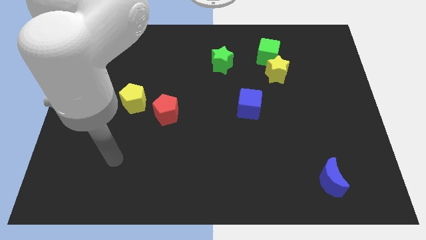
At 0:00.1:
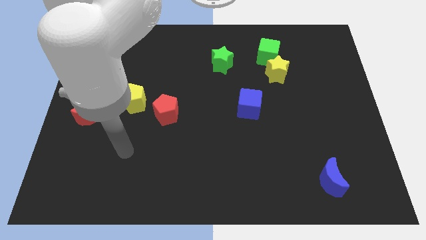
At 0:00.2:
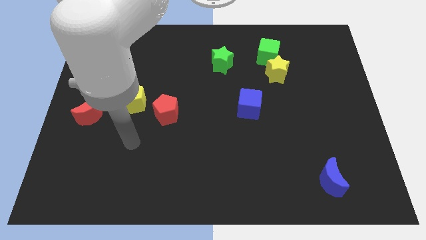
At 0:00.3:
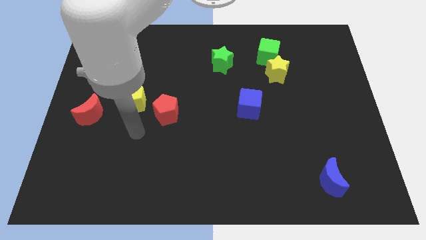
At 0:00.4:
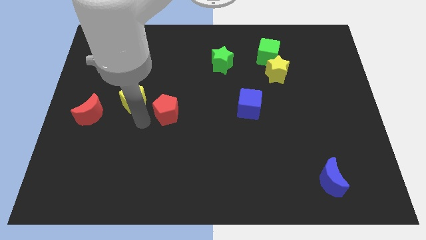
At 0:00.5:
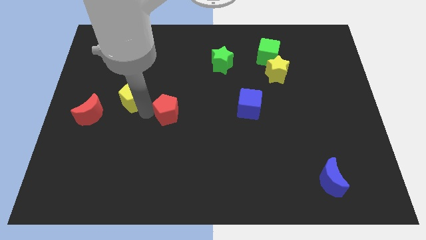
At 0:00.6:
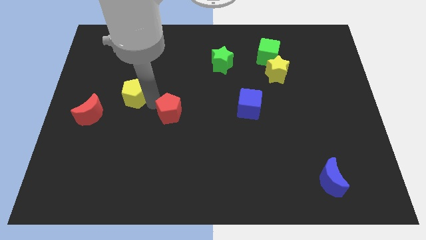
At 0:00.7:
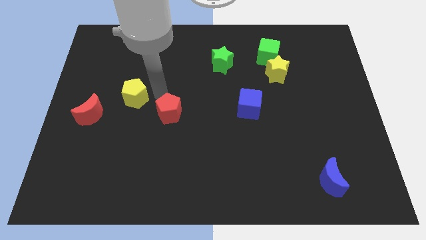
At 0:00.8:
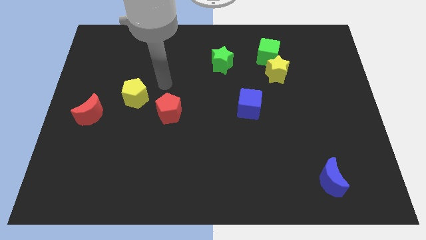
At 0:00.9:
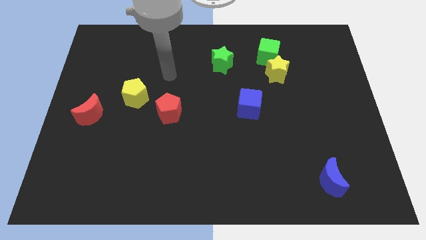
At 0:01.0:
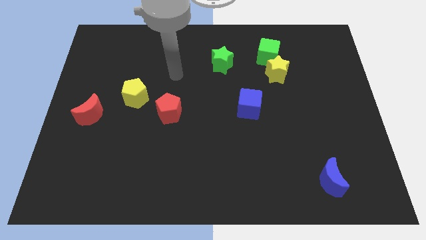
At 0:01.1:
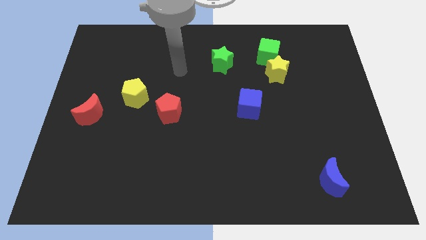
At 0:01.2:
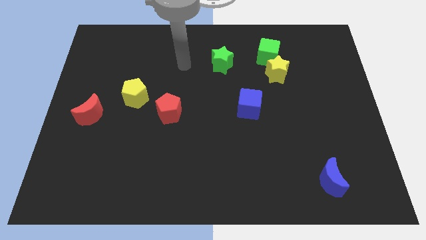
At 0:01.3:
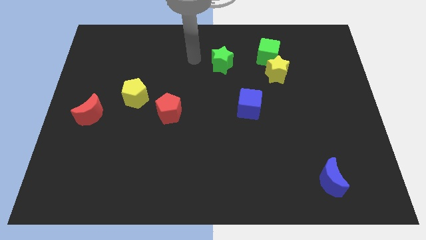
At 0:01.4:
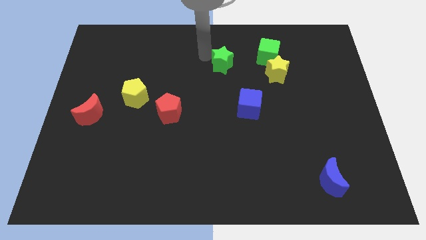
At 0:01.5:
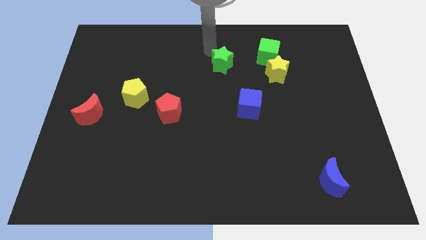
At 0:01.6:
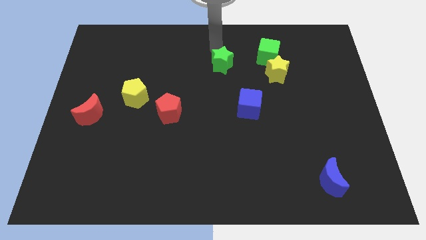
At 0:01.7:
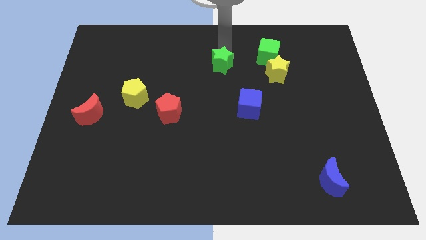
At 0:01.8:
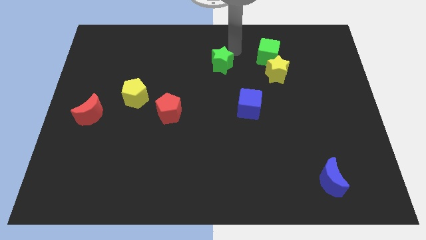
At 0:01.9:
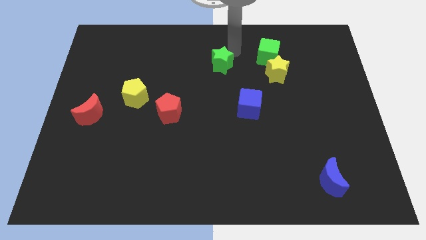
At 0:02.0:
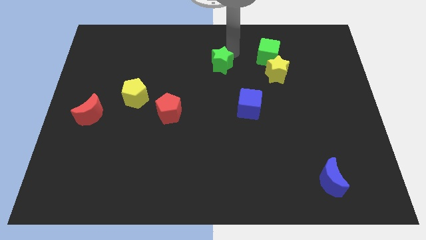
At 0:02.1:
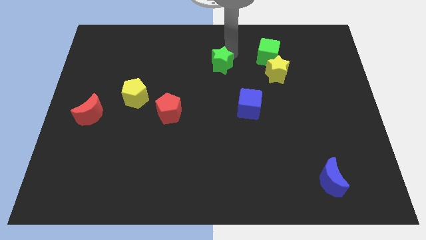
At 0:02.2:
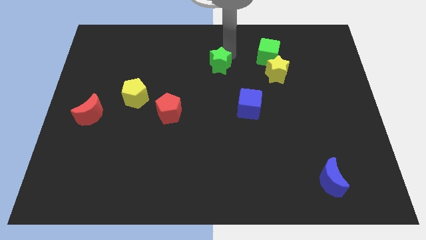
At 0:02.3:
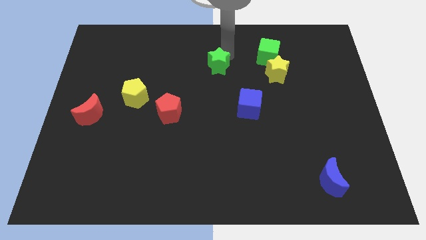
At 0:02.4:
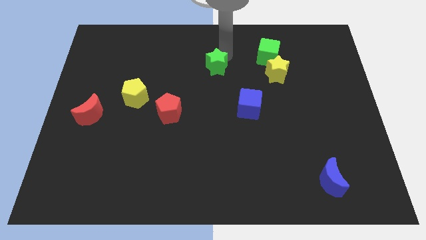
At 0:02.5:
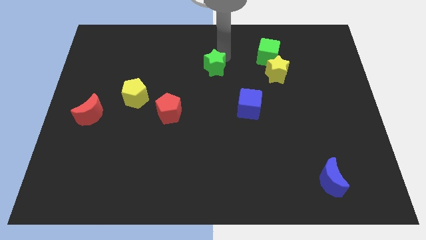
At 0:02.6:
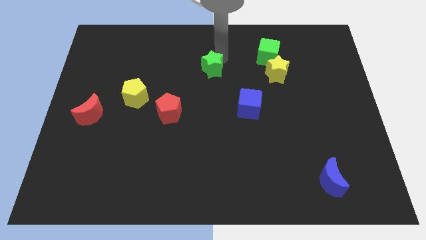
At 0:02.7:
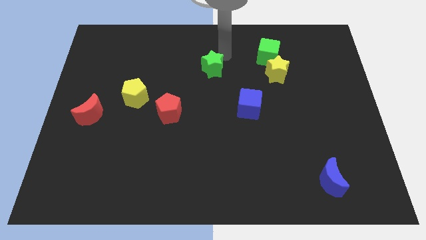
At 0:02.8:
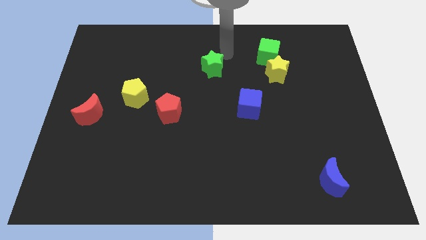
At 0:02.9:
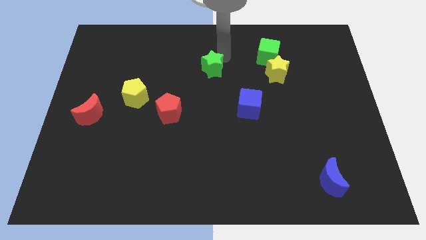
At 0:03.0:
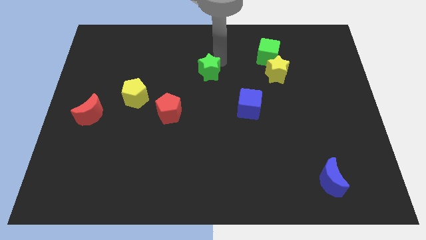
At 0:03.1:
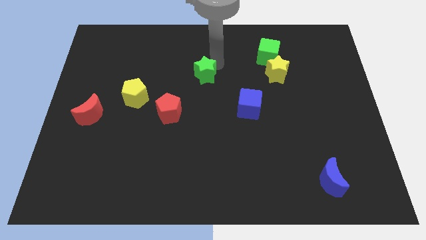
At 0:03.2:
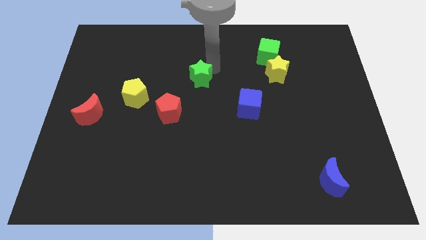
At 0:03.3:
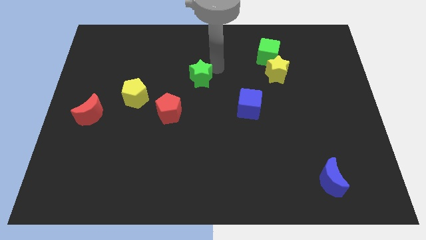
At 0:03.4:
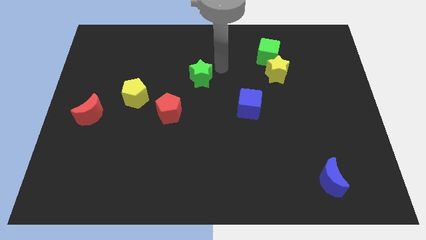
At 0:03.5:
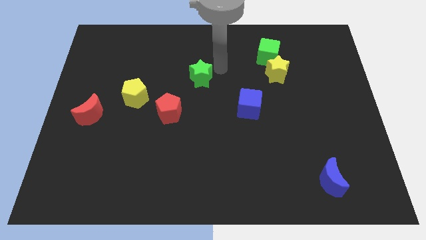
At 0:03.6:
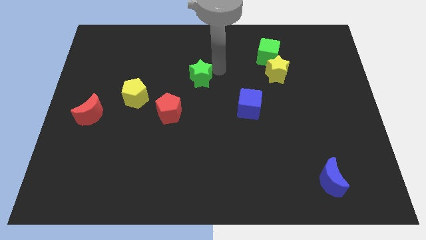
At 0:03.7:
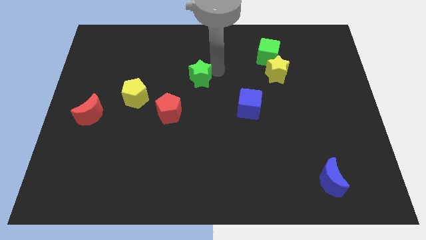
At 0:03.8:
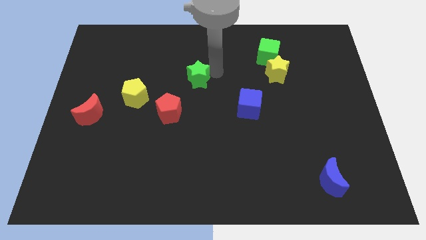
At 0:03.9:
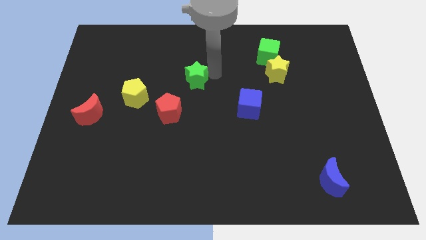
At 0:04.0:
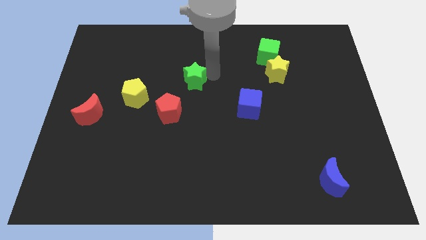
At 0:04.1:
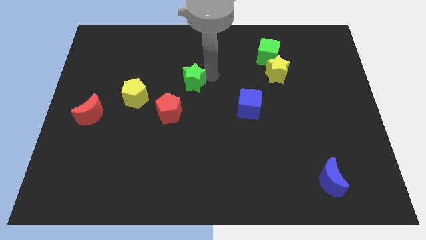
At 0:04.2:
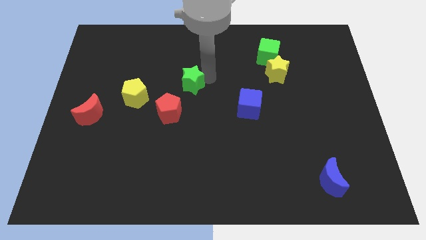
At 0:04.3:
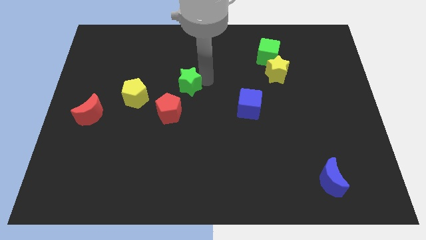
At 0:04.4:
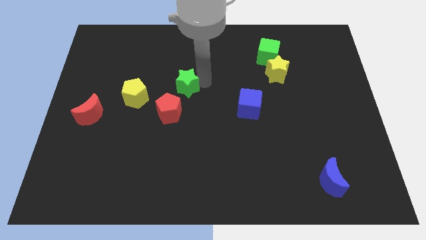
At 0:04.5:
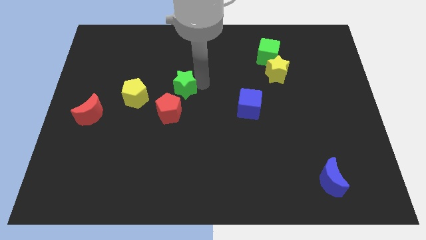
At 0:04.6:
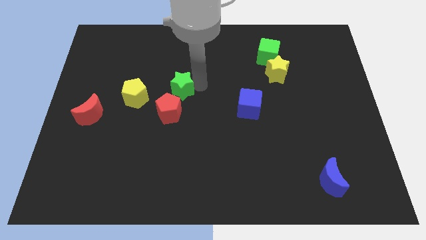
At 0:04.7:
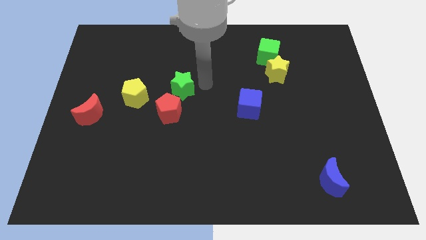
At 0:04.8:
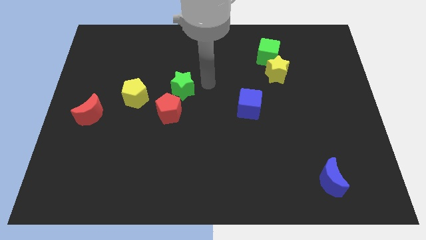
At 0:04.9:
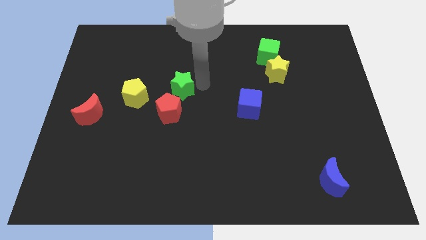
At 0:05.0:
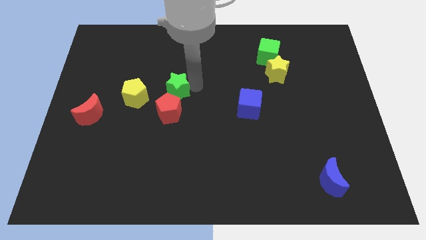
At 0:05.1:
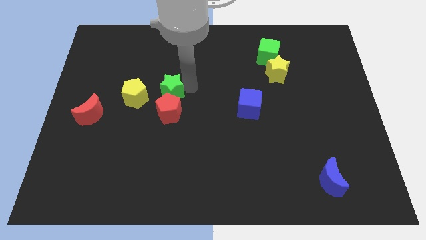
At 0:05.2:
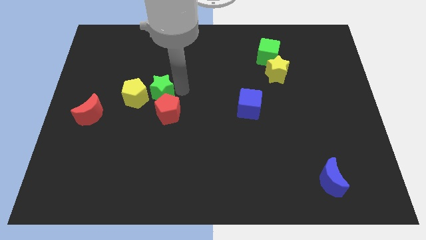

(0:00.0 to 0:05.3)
move the green star towards the yellow pentagon

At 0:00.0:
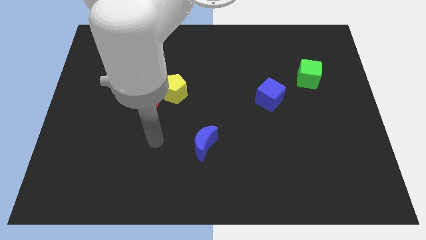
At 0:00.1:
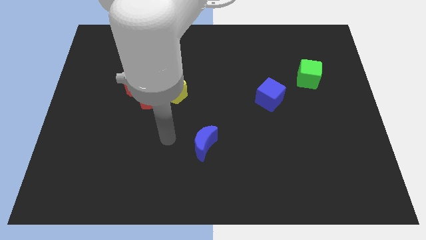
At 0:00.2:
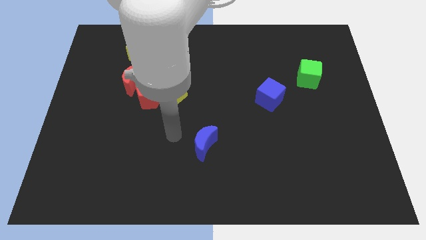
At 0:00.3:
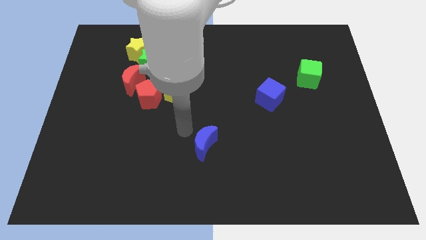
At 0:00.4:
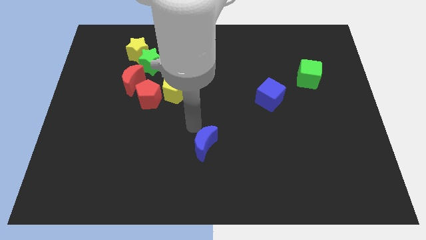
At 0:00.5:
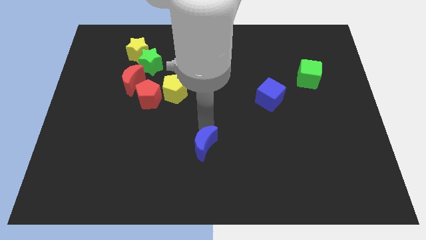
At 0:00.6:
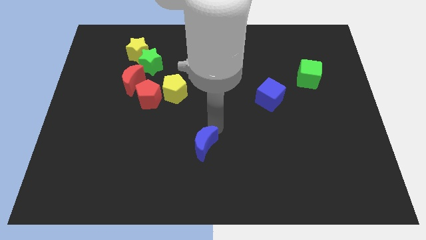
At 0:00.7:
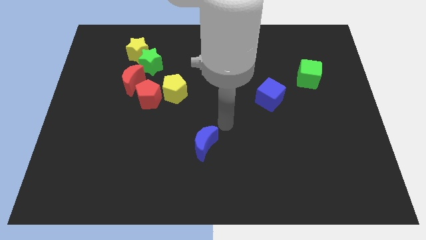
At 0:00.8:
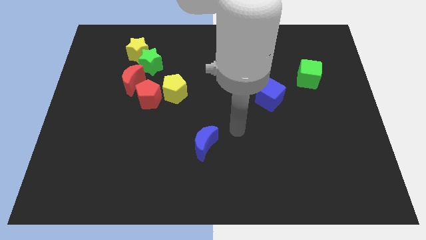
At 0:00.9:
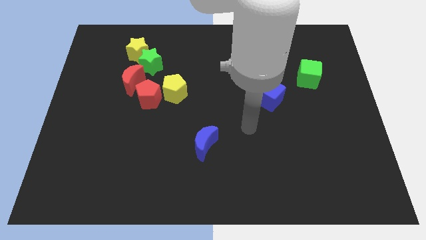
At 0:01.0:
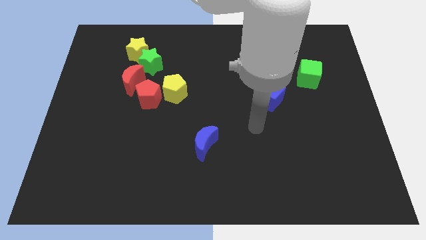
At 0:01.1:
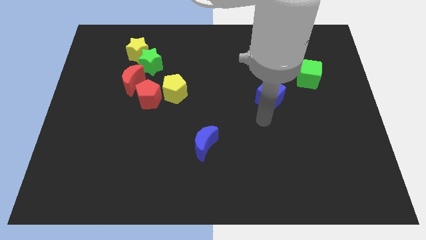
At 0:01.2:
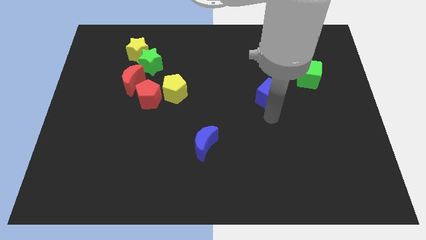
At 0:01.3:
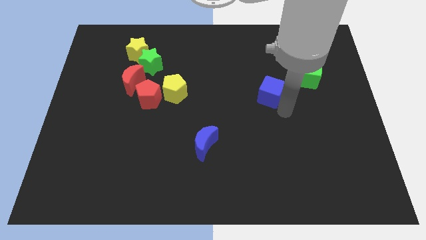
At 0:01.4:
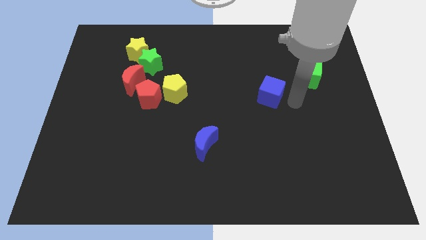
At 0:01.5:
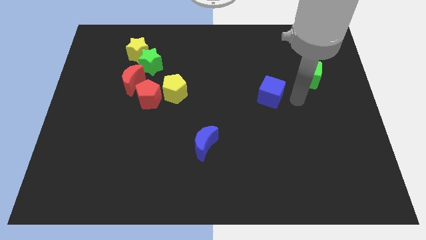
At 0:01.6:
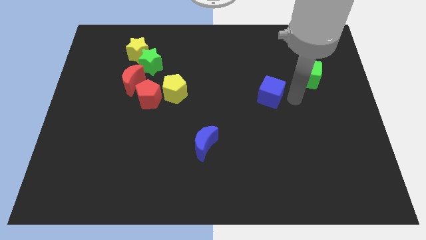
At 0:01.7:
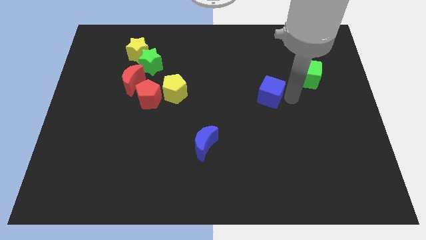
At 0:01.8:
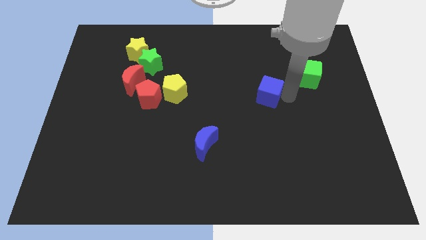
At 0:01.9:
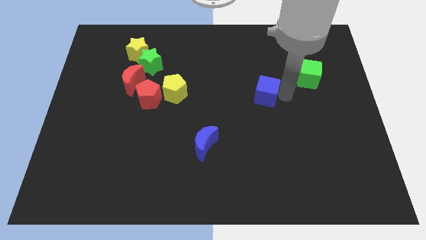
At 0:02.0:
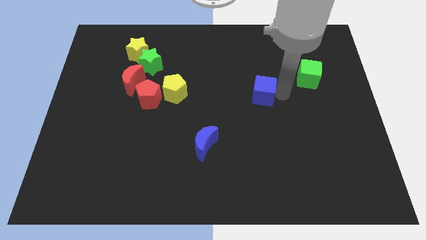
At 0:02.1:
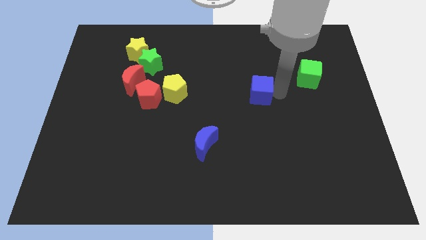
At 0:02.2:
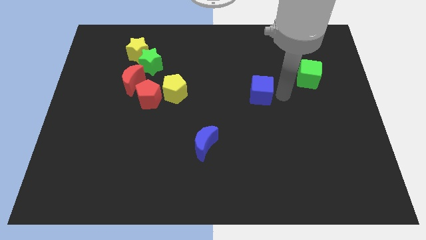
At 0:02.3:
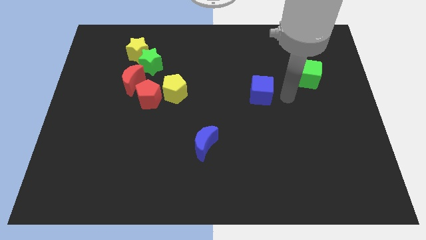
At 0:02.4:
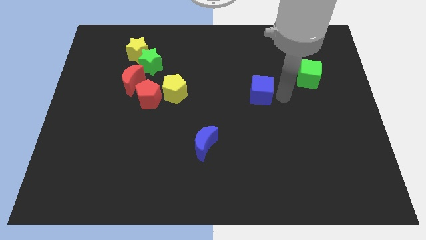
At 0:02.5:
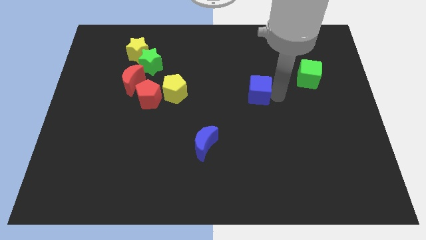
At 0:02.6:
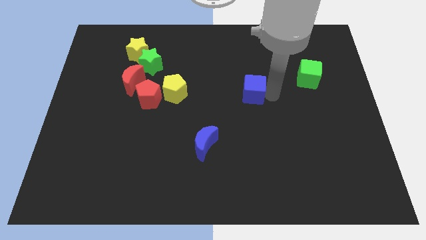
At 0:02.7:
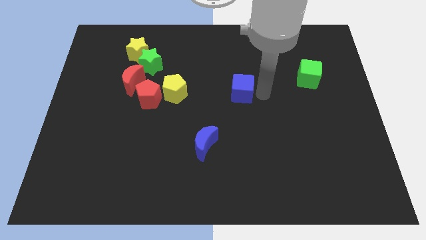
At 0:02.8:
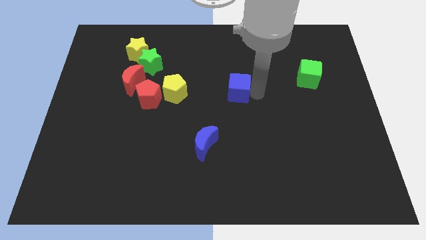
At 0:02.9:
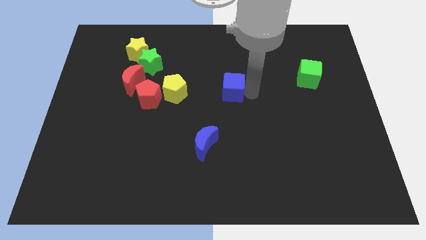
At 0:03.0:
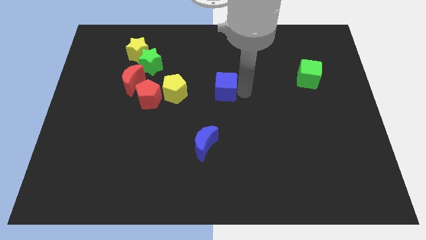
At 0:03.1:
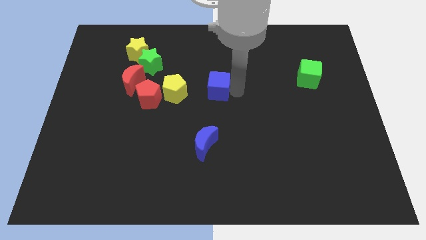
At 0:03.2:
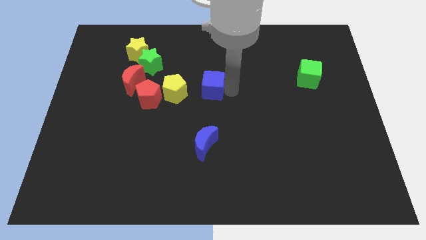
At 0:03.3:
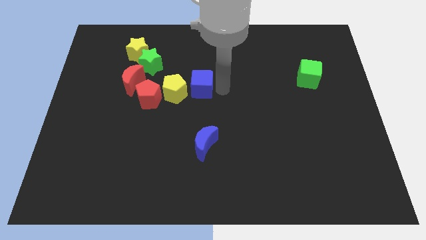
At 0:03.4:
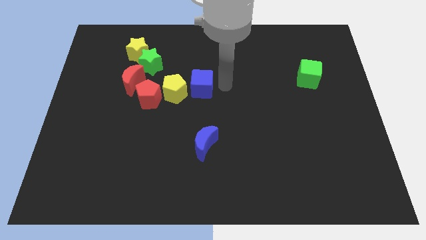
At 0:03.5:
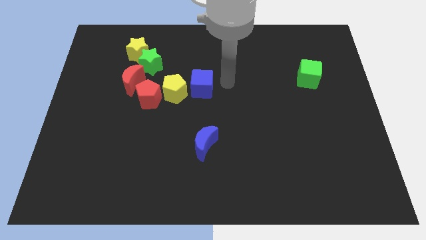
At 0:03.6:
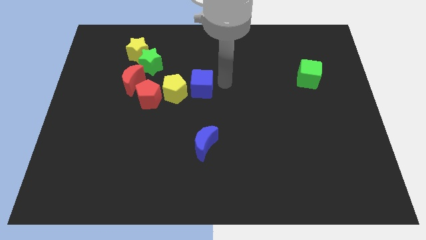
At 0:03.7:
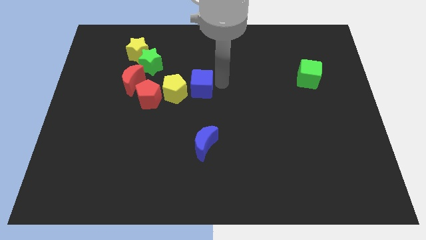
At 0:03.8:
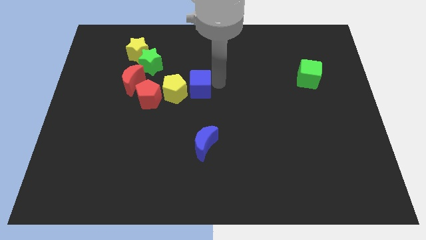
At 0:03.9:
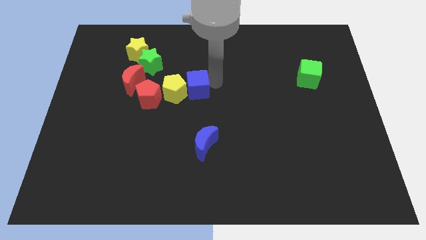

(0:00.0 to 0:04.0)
slide the blue cube next to the yellow pentagon
